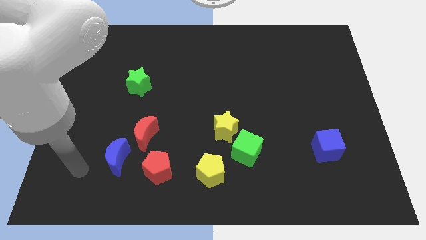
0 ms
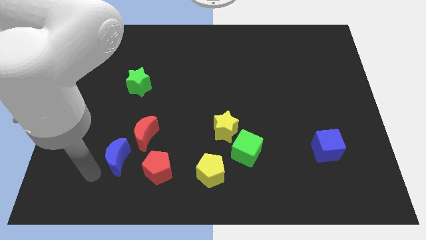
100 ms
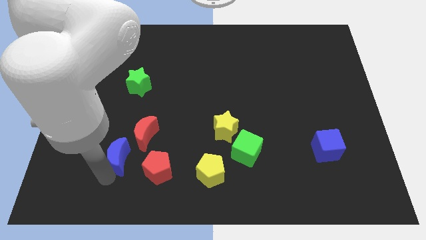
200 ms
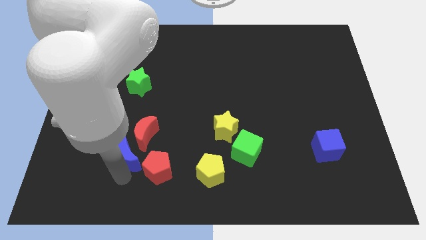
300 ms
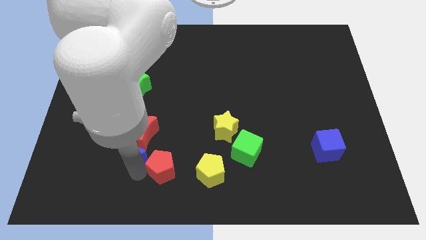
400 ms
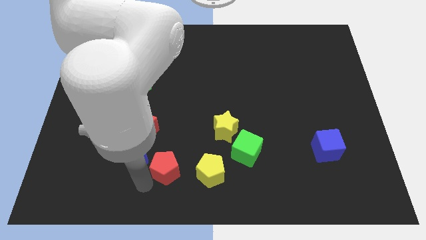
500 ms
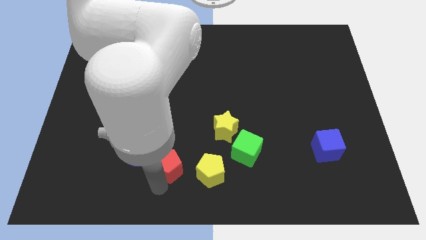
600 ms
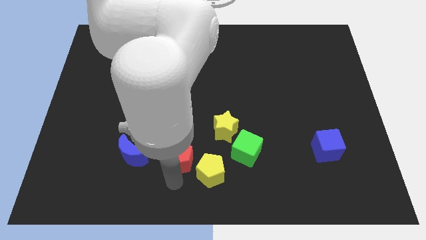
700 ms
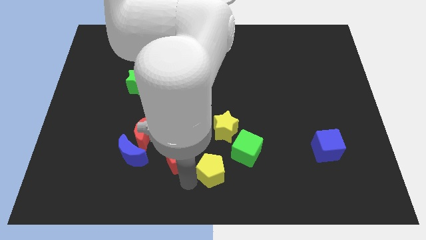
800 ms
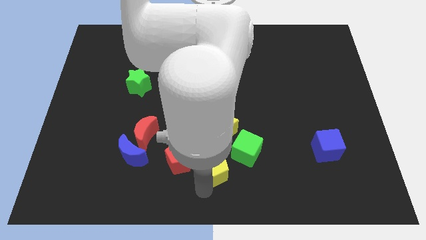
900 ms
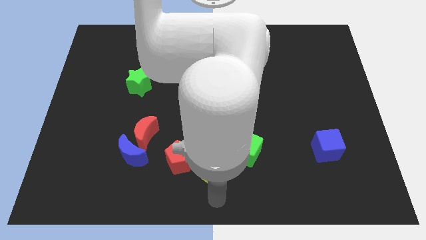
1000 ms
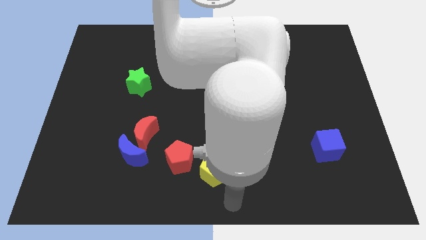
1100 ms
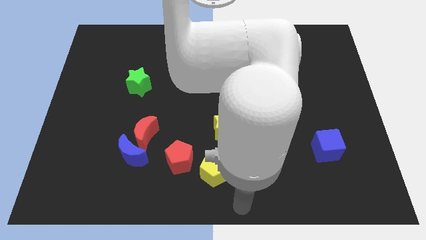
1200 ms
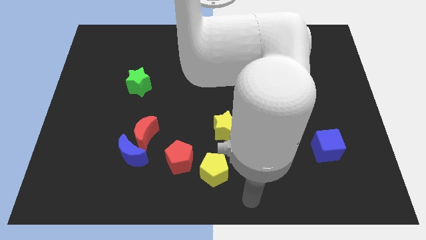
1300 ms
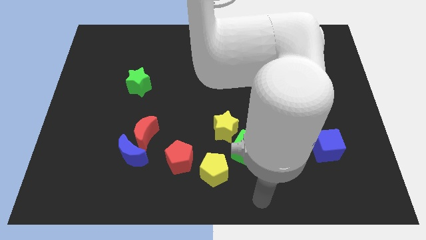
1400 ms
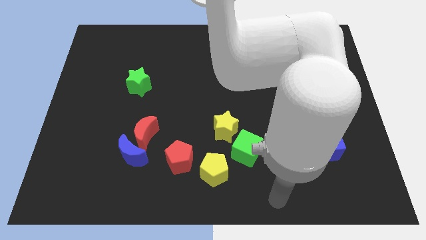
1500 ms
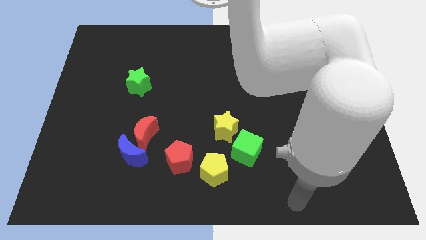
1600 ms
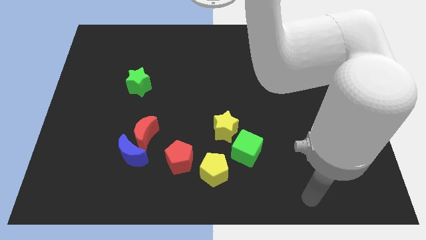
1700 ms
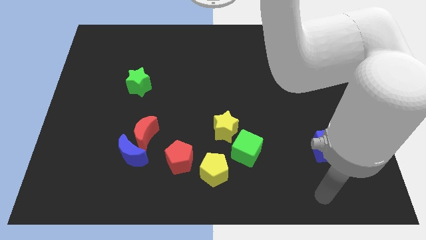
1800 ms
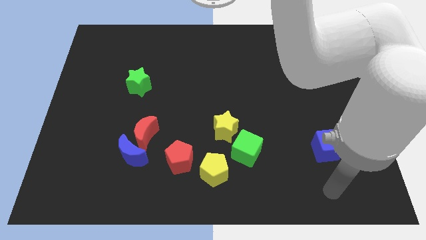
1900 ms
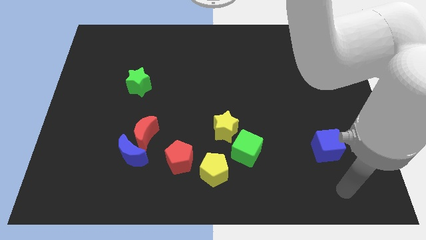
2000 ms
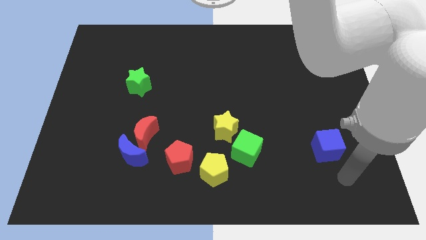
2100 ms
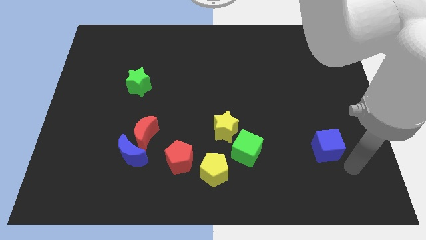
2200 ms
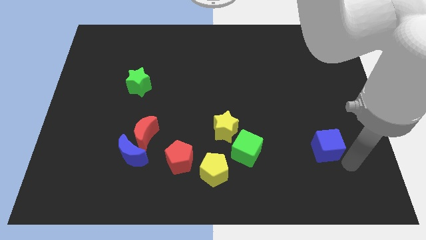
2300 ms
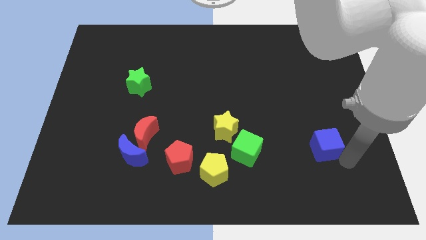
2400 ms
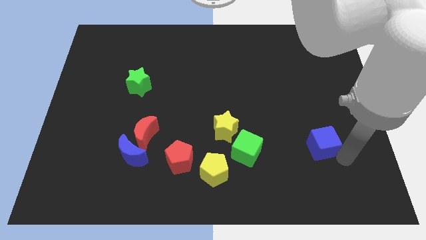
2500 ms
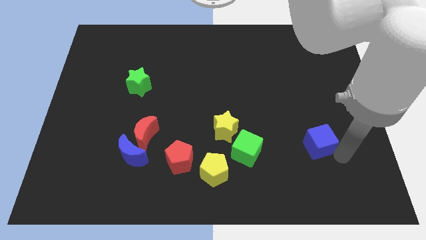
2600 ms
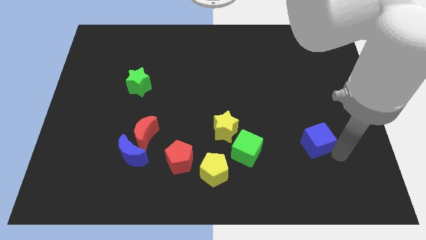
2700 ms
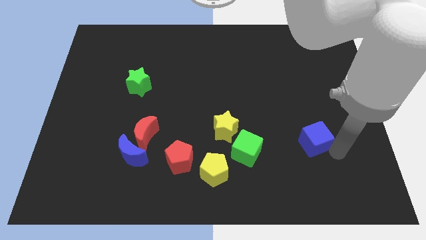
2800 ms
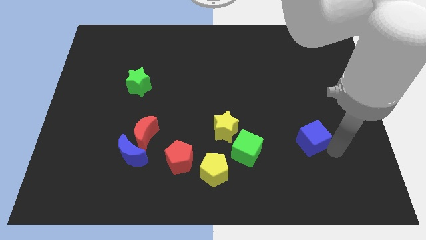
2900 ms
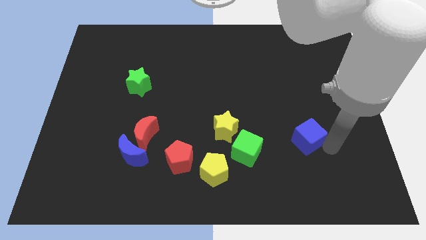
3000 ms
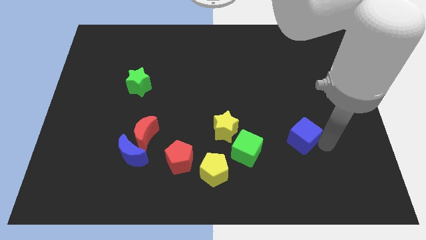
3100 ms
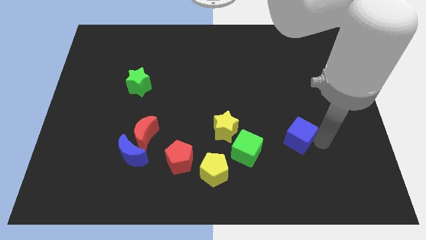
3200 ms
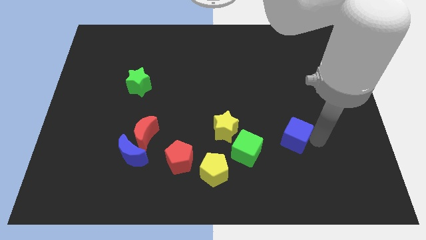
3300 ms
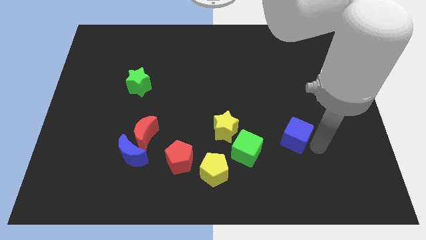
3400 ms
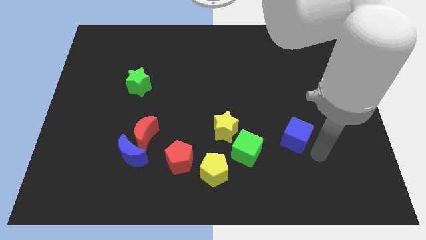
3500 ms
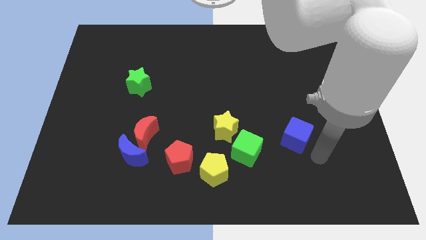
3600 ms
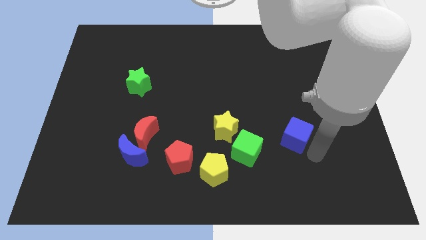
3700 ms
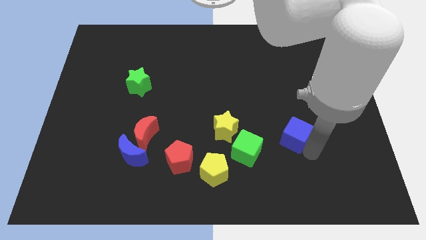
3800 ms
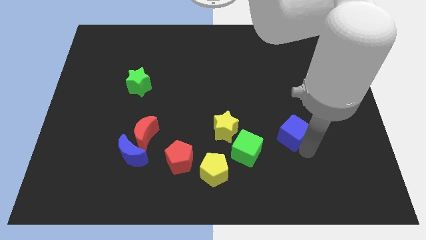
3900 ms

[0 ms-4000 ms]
move the blue cube a little bit diagonally upwards and to the left

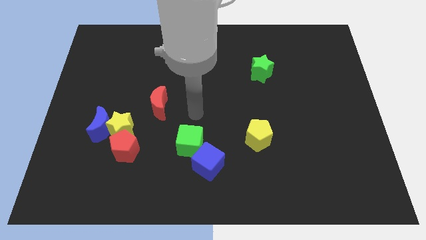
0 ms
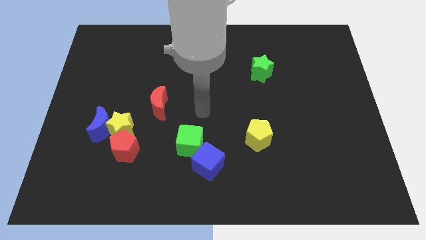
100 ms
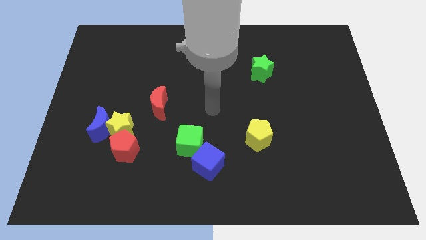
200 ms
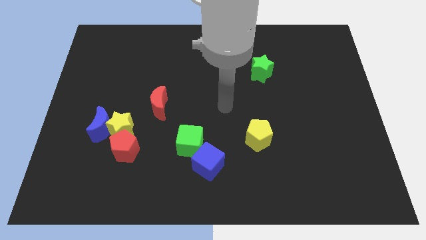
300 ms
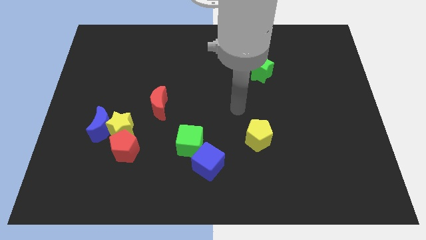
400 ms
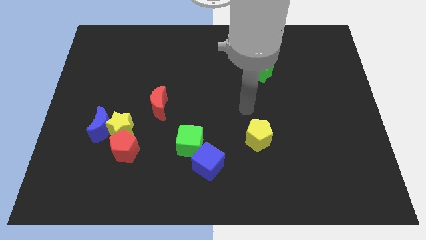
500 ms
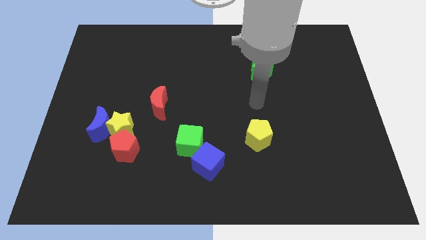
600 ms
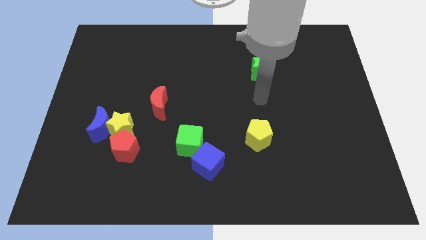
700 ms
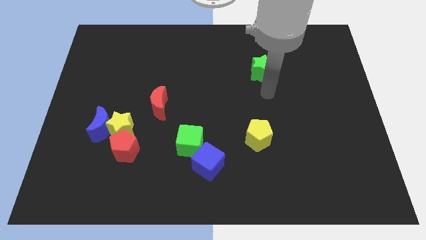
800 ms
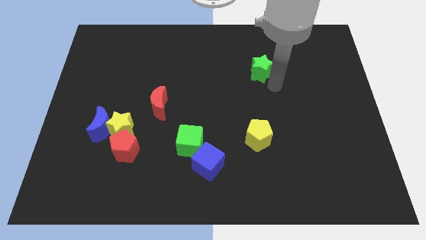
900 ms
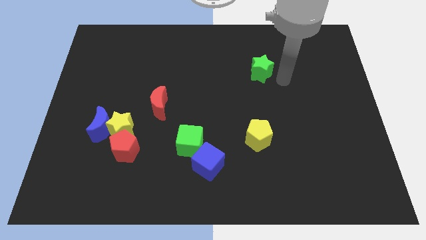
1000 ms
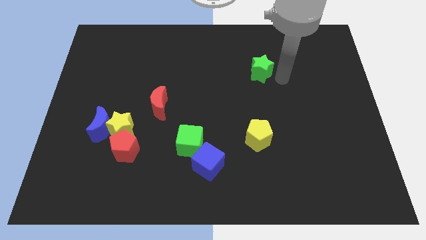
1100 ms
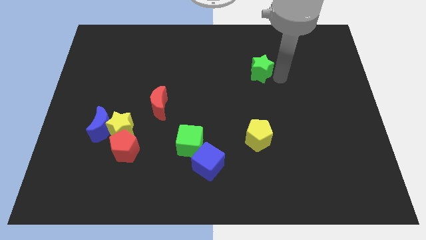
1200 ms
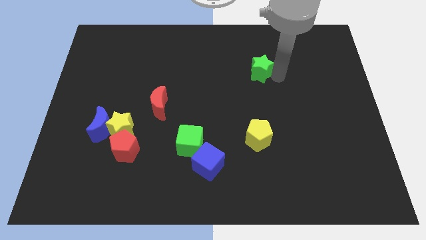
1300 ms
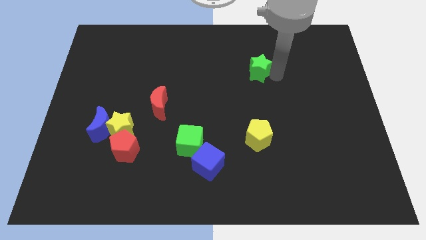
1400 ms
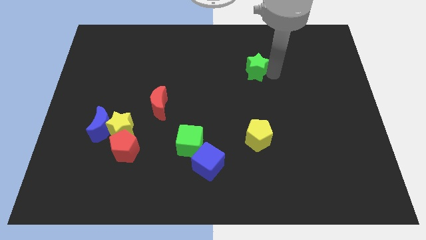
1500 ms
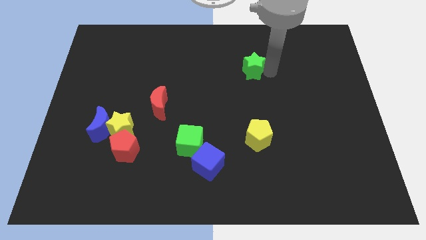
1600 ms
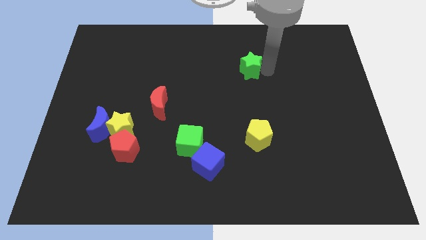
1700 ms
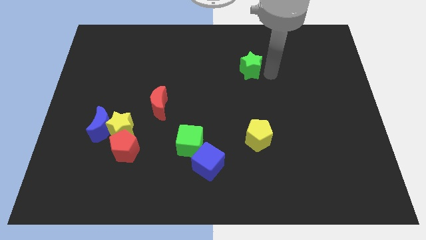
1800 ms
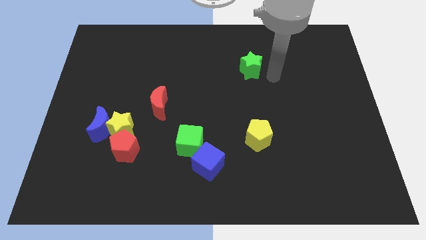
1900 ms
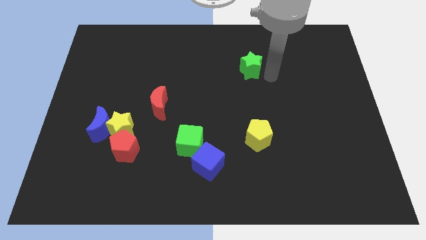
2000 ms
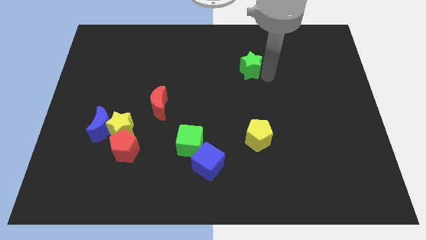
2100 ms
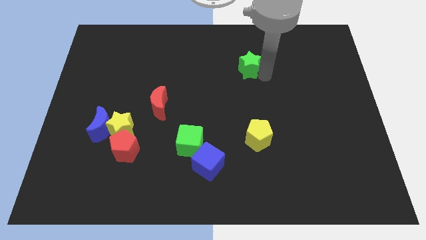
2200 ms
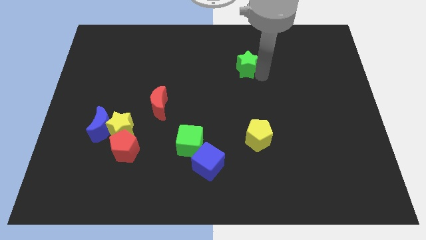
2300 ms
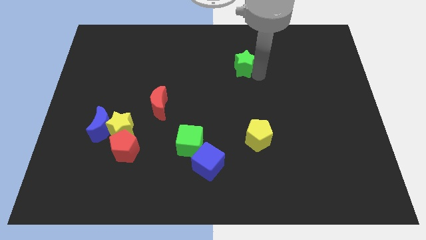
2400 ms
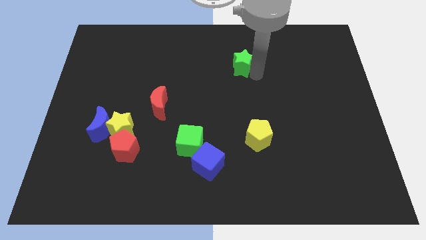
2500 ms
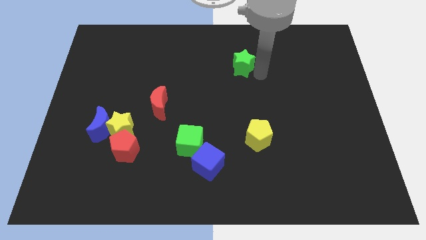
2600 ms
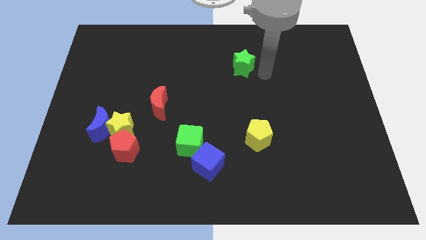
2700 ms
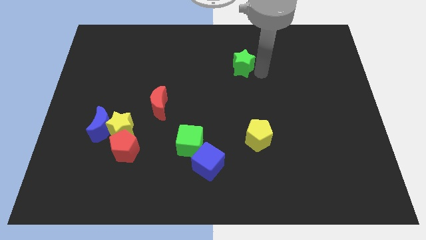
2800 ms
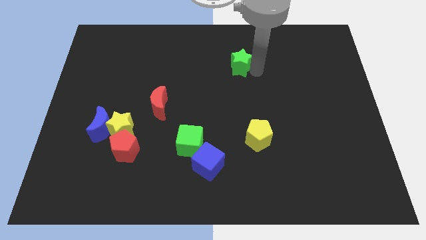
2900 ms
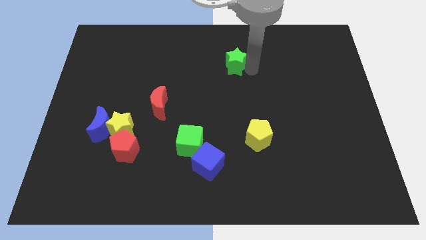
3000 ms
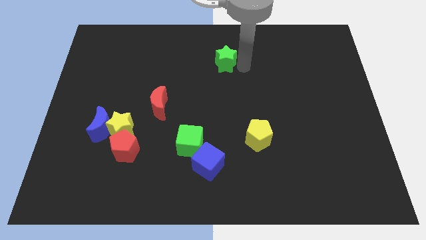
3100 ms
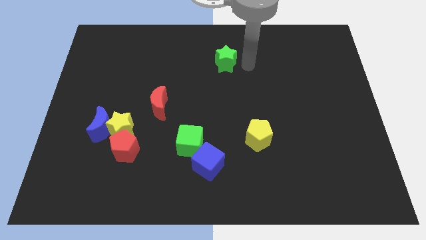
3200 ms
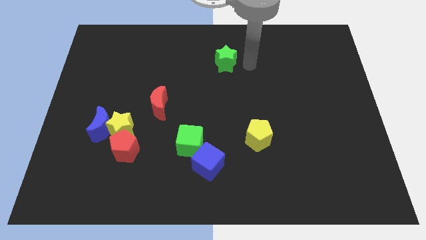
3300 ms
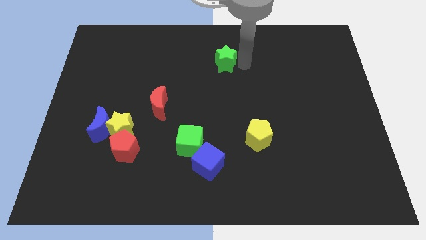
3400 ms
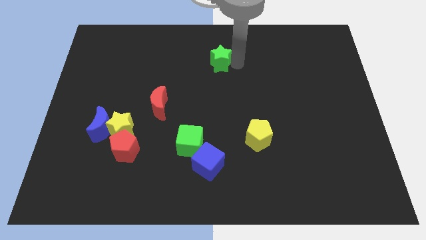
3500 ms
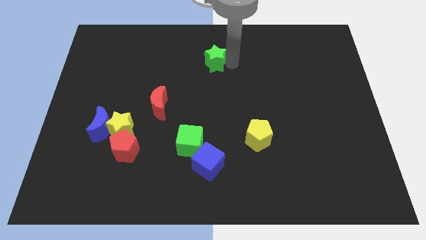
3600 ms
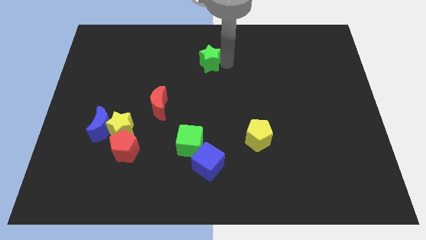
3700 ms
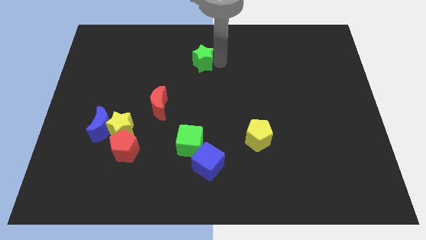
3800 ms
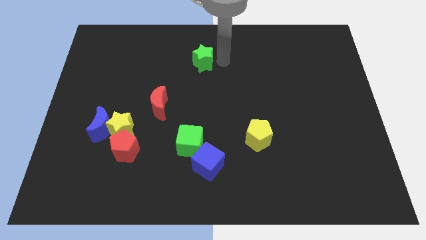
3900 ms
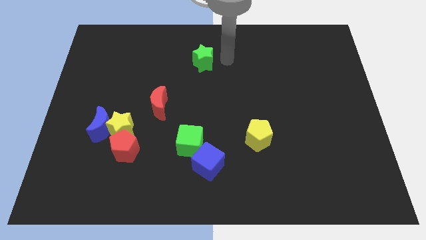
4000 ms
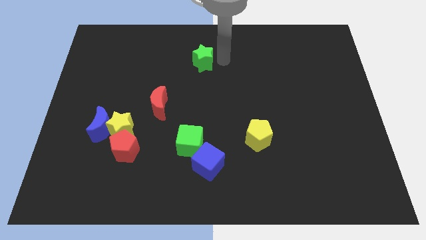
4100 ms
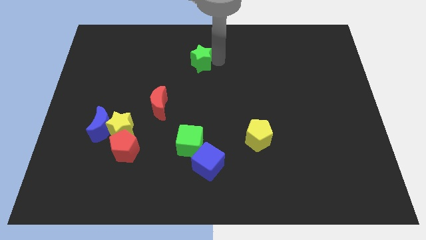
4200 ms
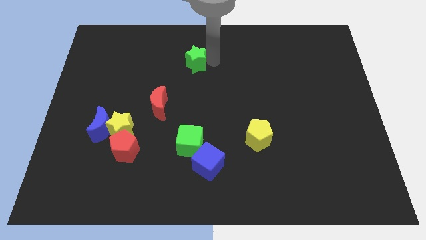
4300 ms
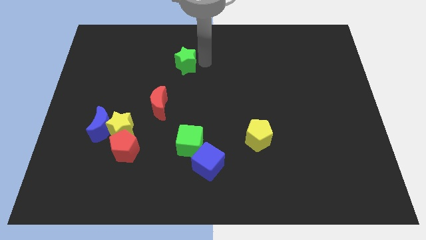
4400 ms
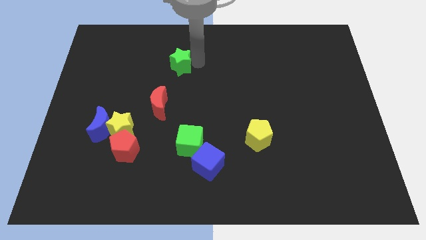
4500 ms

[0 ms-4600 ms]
slide the green star to the left
